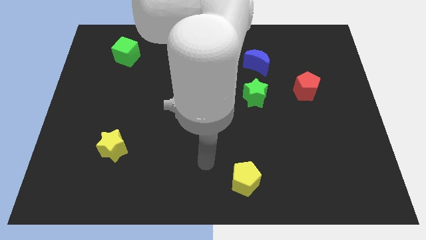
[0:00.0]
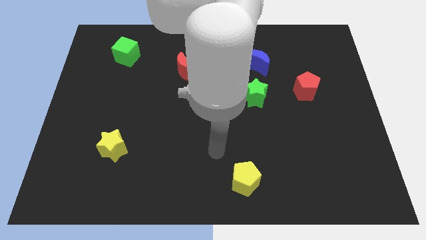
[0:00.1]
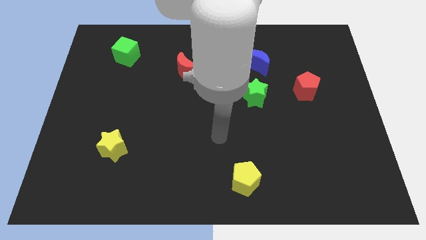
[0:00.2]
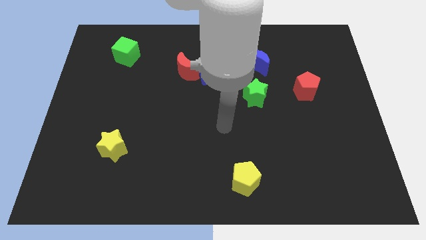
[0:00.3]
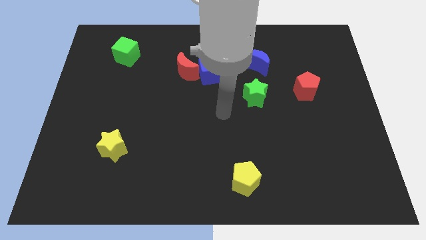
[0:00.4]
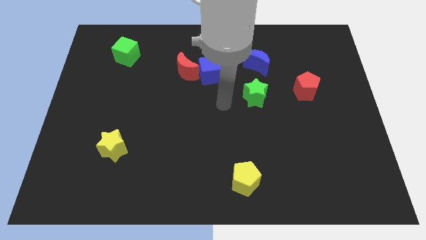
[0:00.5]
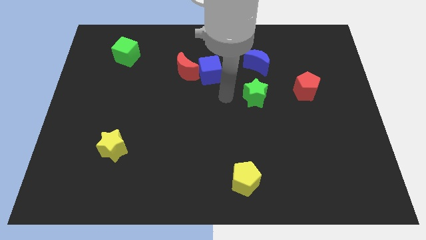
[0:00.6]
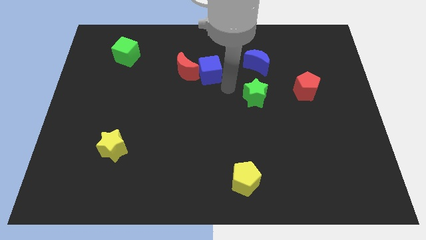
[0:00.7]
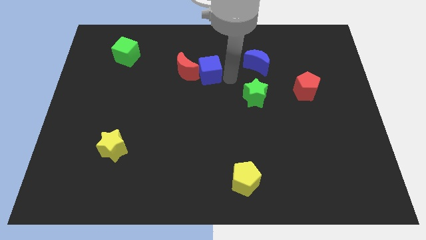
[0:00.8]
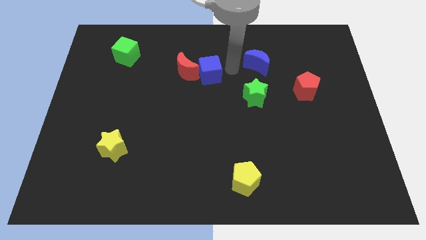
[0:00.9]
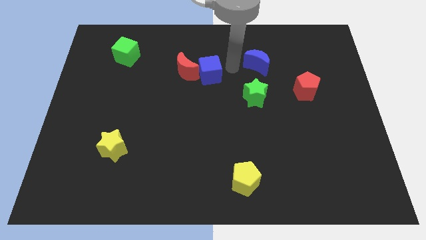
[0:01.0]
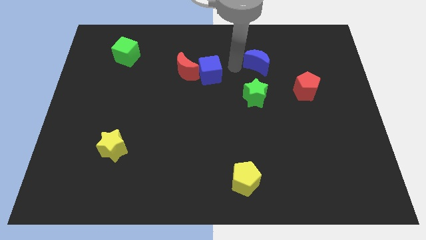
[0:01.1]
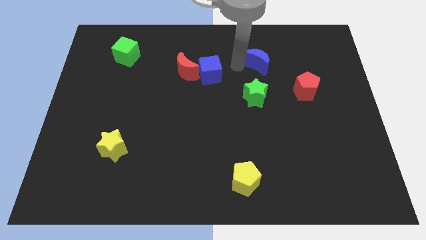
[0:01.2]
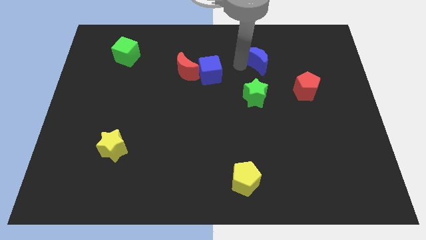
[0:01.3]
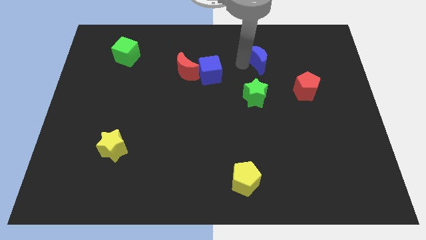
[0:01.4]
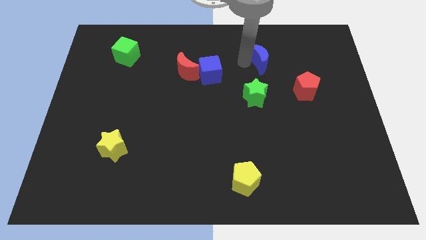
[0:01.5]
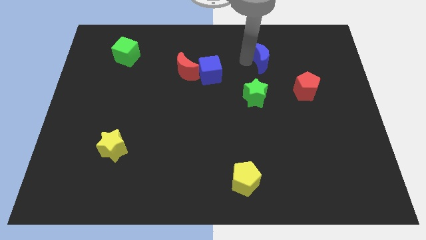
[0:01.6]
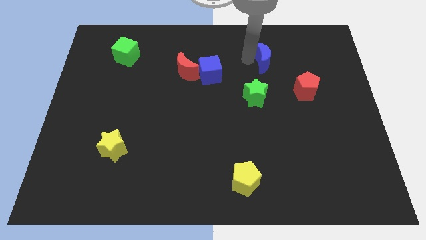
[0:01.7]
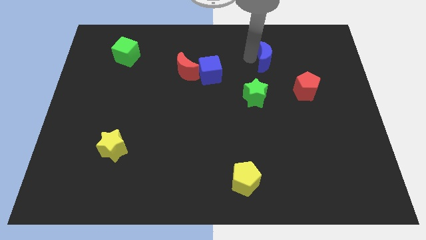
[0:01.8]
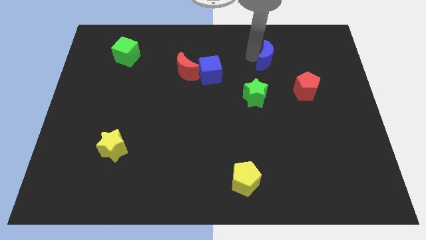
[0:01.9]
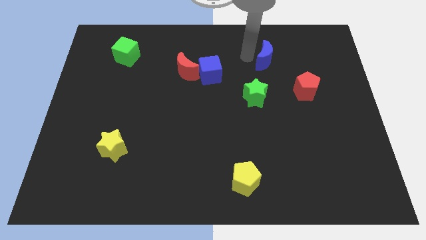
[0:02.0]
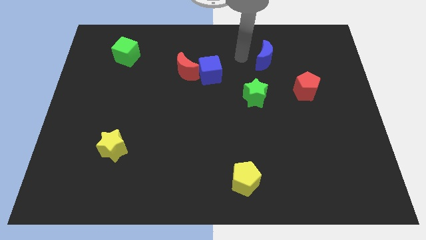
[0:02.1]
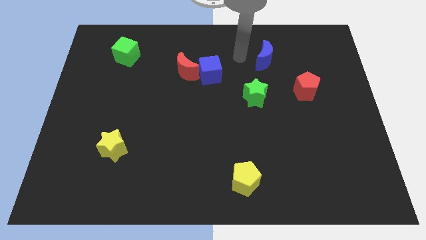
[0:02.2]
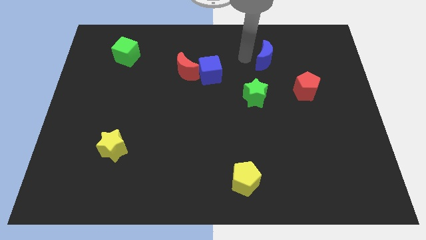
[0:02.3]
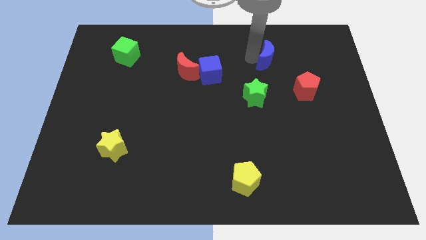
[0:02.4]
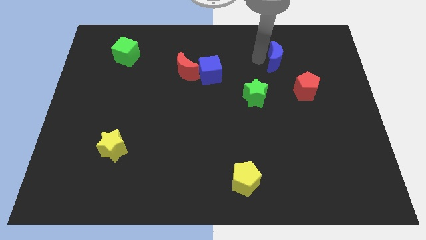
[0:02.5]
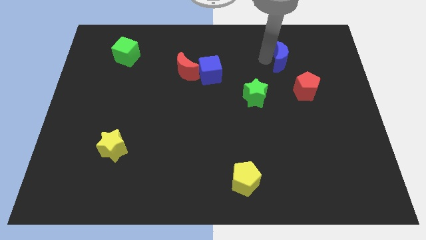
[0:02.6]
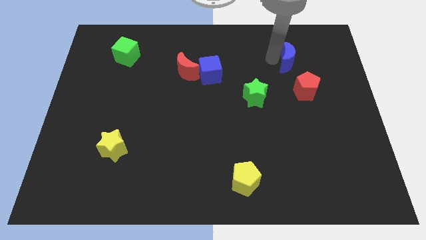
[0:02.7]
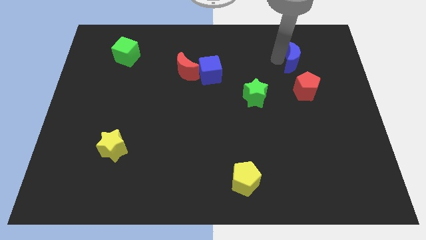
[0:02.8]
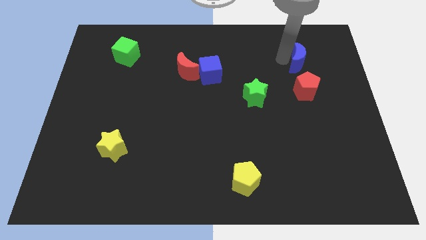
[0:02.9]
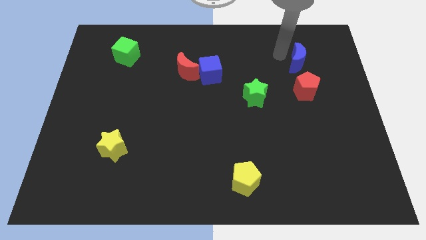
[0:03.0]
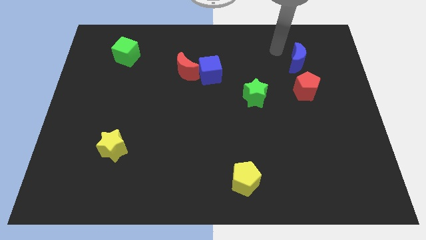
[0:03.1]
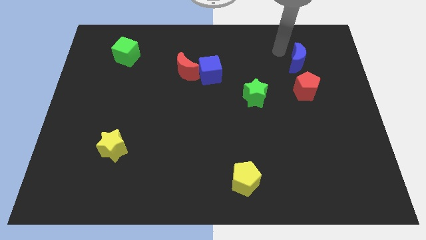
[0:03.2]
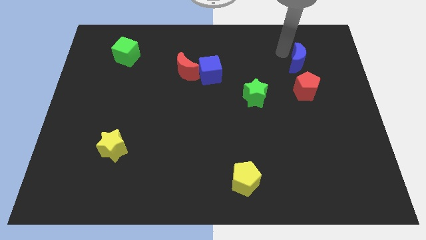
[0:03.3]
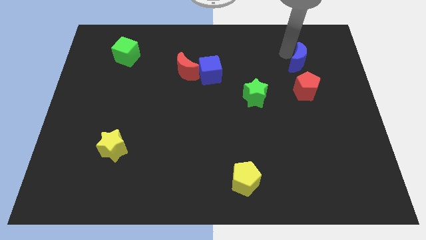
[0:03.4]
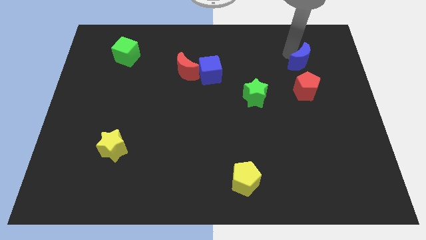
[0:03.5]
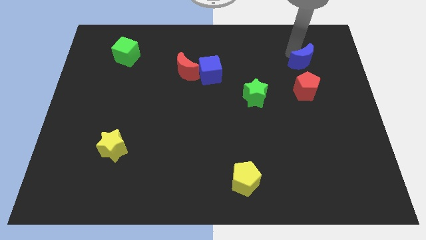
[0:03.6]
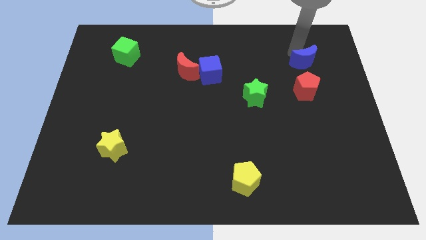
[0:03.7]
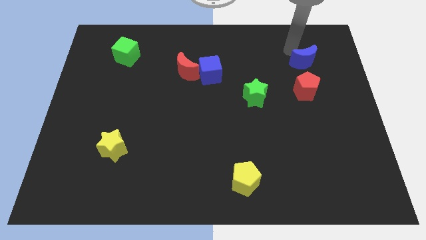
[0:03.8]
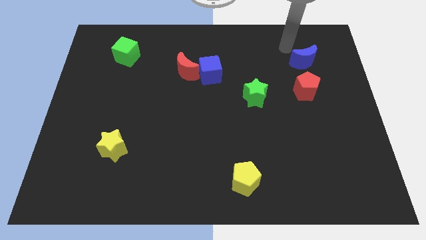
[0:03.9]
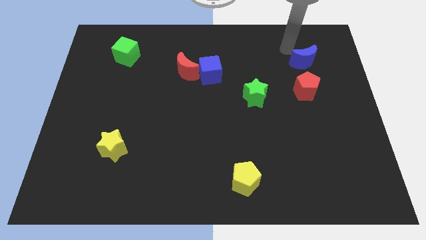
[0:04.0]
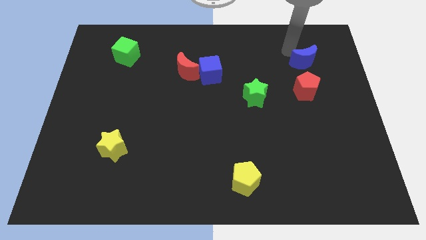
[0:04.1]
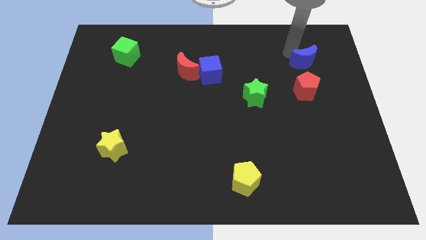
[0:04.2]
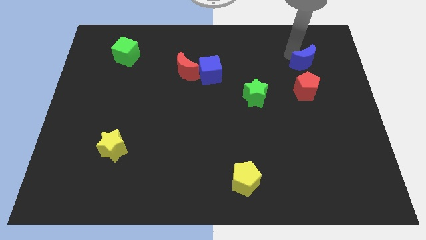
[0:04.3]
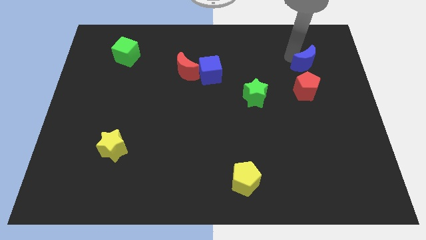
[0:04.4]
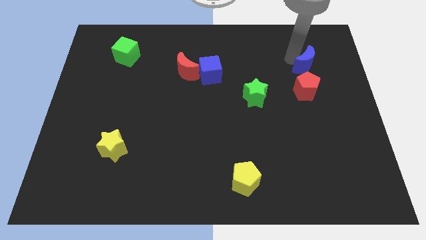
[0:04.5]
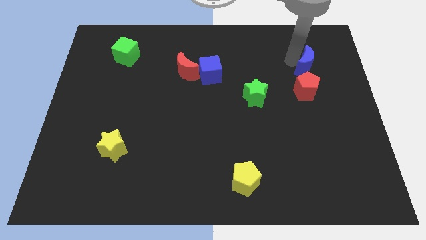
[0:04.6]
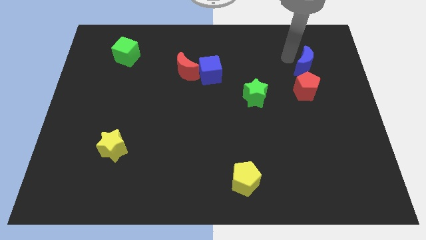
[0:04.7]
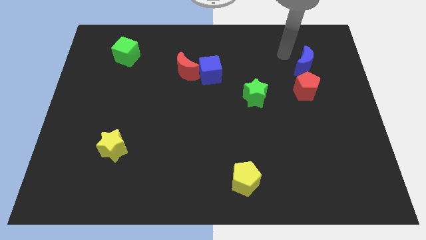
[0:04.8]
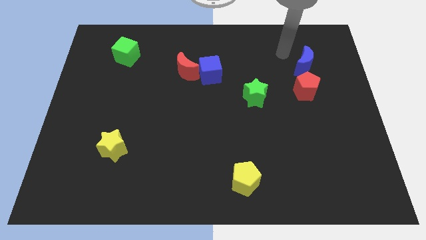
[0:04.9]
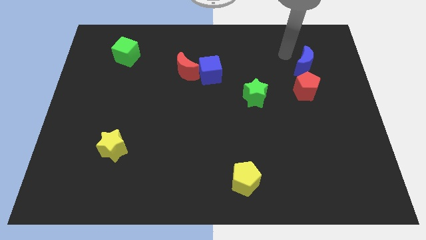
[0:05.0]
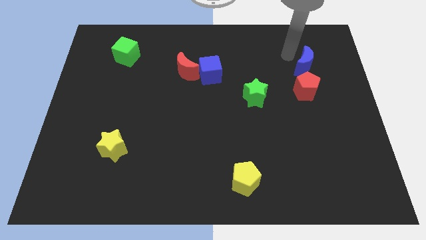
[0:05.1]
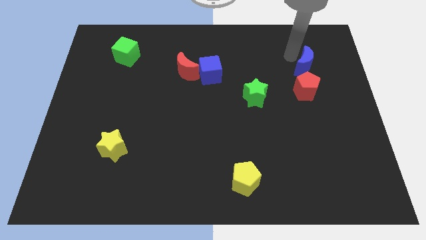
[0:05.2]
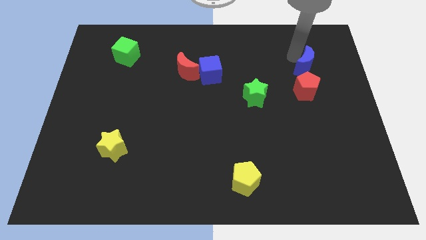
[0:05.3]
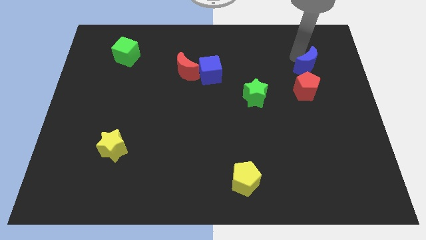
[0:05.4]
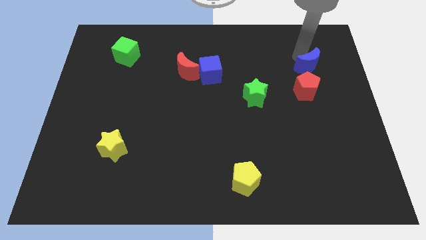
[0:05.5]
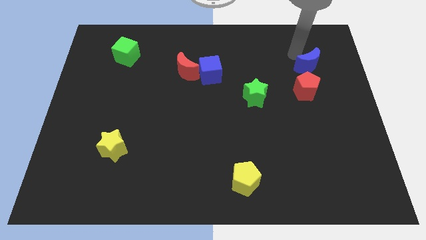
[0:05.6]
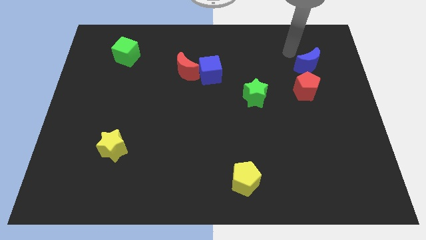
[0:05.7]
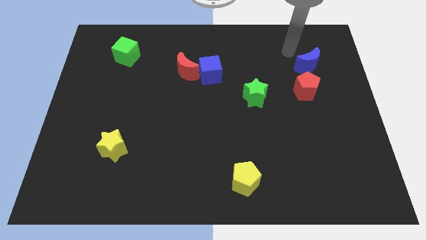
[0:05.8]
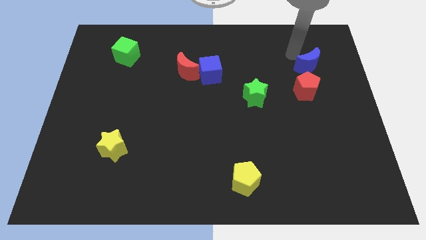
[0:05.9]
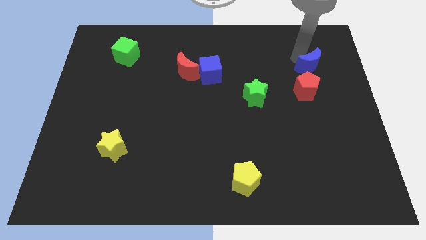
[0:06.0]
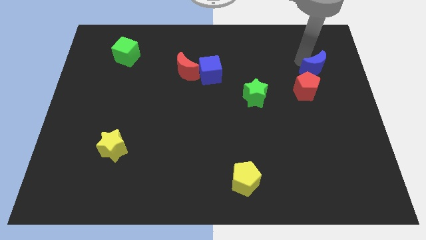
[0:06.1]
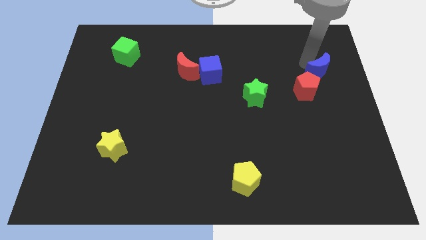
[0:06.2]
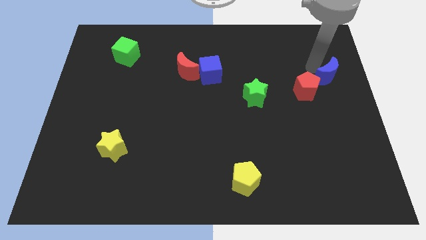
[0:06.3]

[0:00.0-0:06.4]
push the blue moon to the center right
